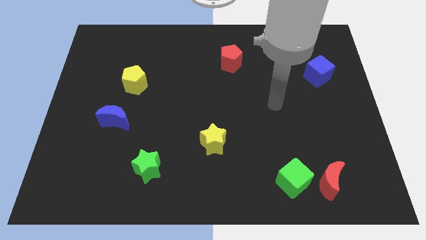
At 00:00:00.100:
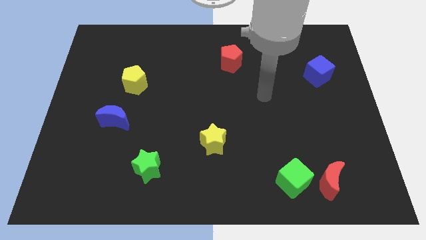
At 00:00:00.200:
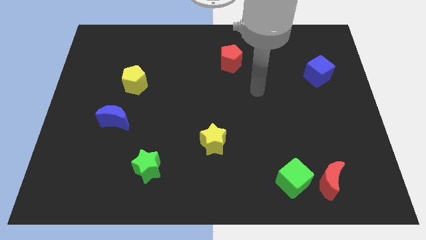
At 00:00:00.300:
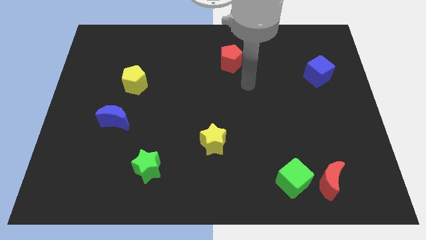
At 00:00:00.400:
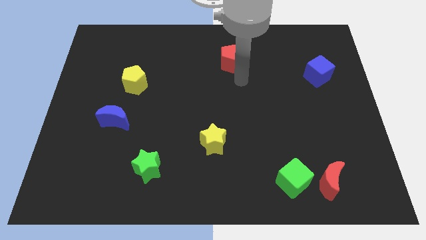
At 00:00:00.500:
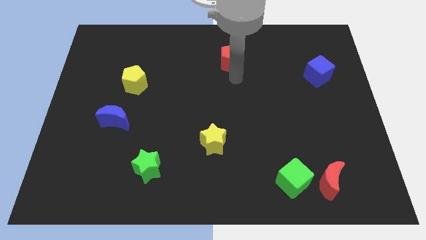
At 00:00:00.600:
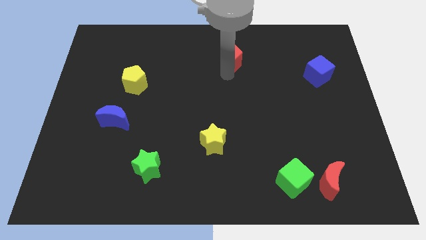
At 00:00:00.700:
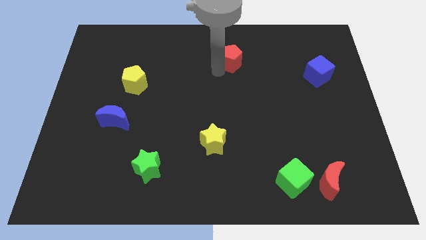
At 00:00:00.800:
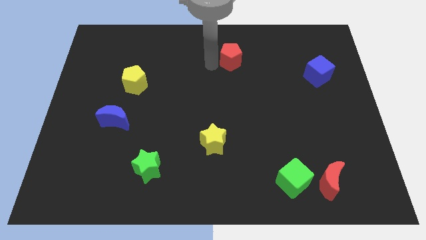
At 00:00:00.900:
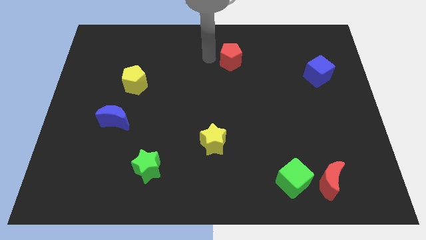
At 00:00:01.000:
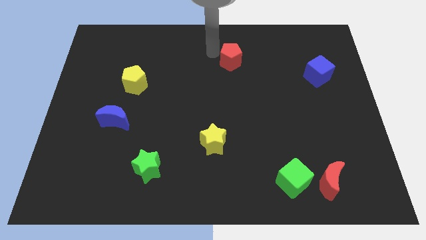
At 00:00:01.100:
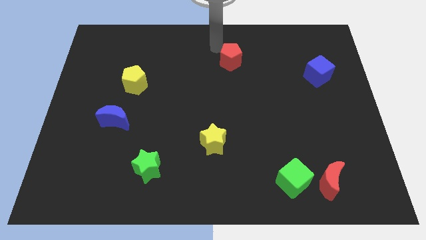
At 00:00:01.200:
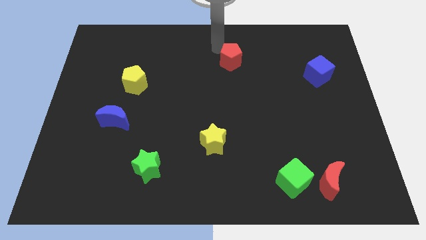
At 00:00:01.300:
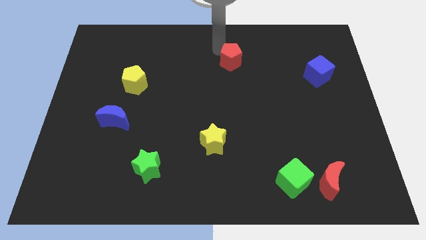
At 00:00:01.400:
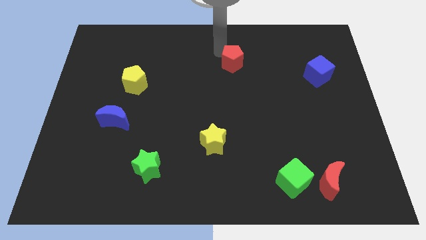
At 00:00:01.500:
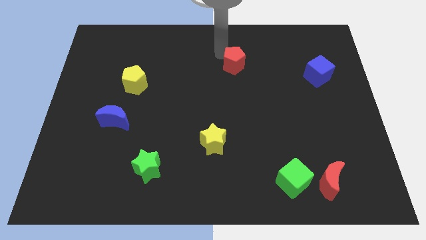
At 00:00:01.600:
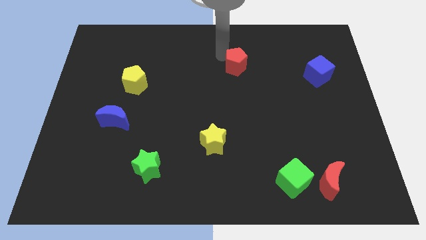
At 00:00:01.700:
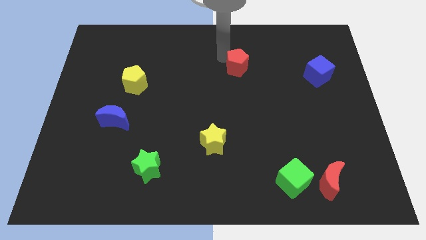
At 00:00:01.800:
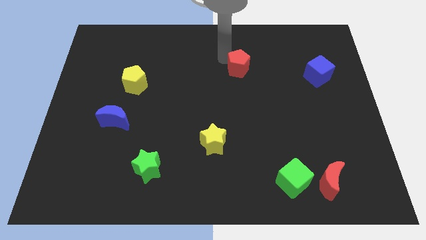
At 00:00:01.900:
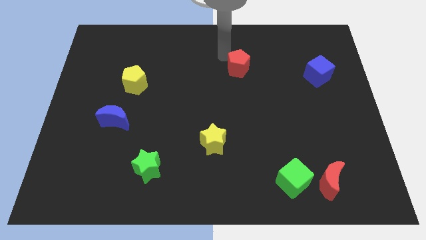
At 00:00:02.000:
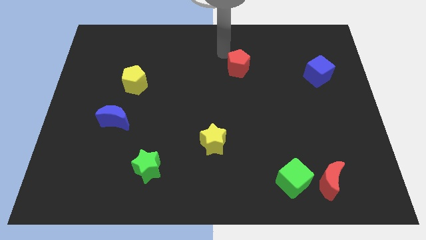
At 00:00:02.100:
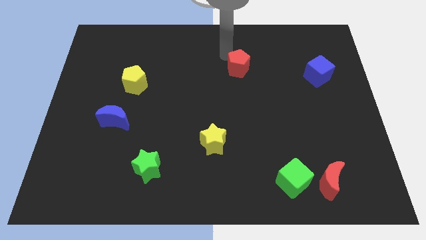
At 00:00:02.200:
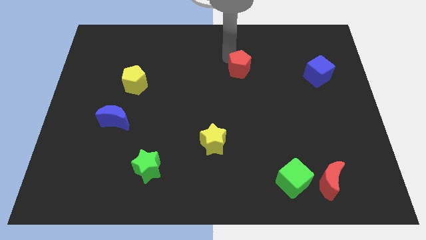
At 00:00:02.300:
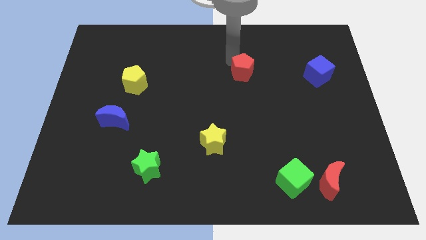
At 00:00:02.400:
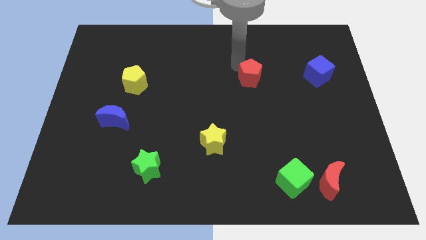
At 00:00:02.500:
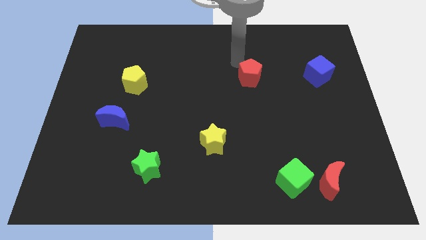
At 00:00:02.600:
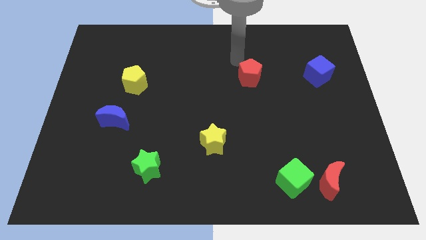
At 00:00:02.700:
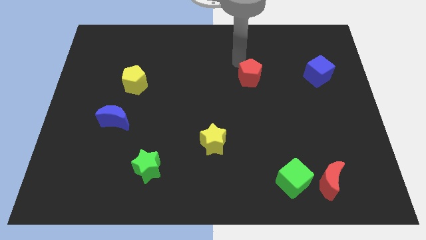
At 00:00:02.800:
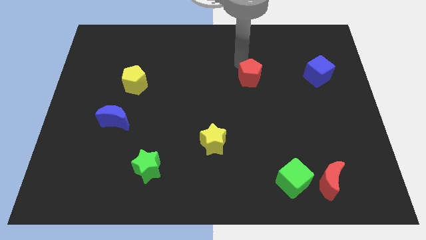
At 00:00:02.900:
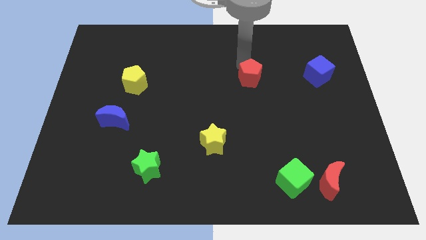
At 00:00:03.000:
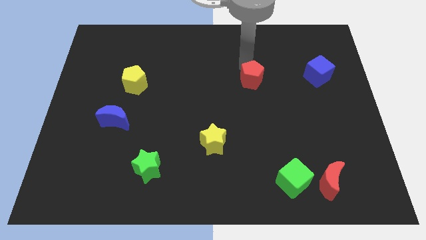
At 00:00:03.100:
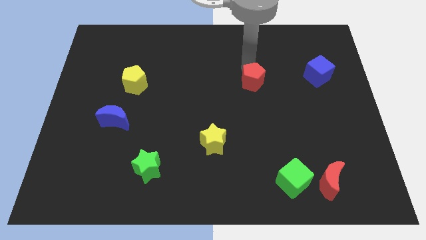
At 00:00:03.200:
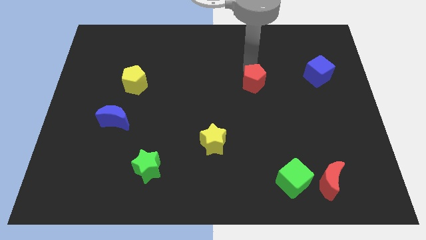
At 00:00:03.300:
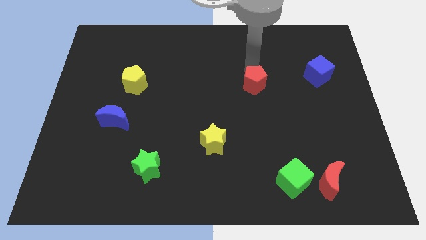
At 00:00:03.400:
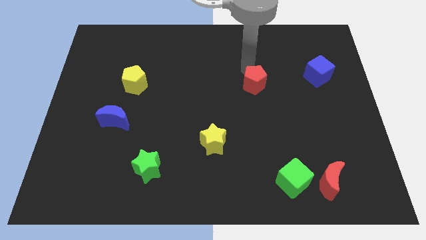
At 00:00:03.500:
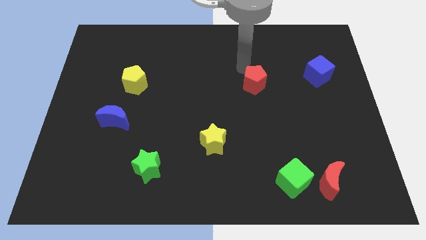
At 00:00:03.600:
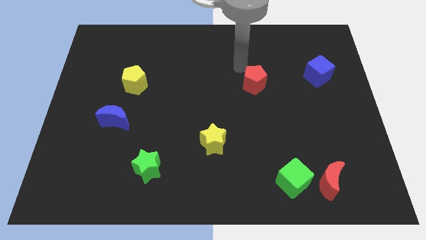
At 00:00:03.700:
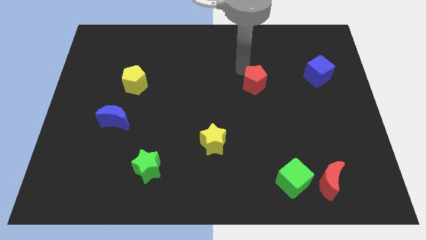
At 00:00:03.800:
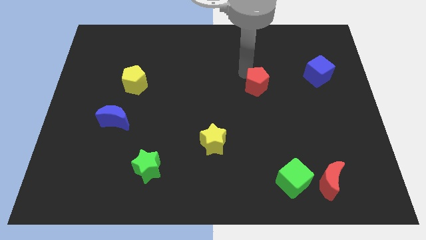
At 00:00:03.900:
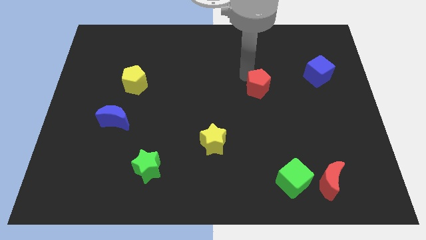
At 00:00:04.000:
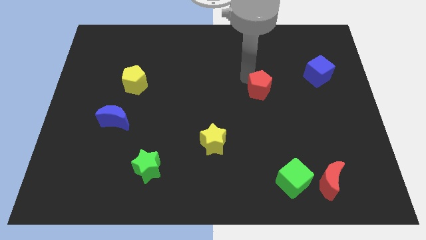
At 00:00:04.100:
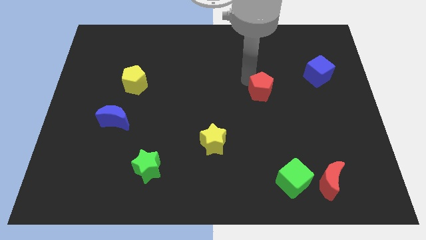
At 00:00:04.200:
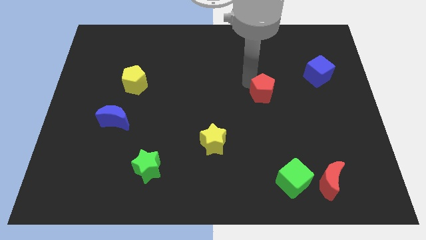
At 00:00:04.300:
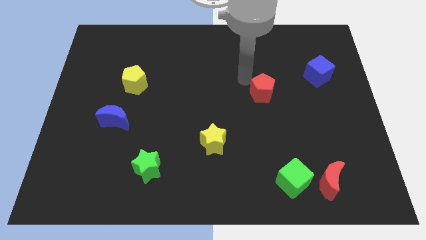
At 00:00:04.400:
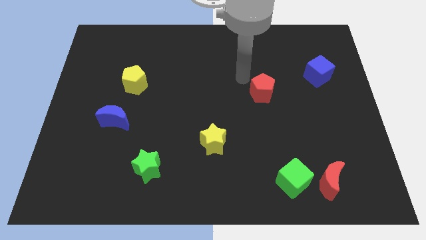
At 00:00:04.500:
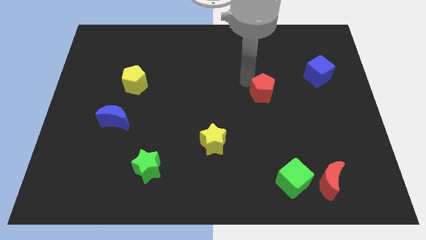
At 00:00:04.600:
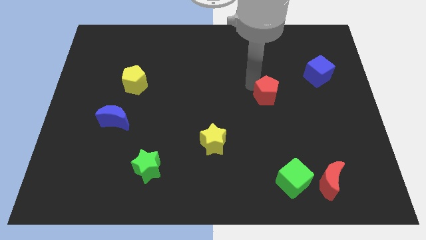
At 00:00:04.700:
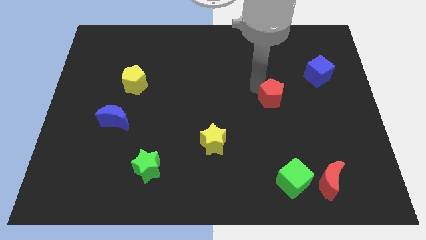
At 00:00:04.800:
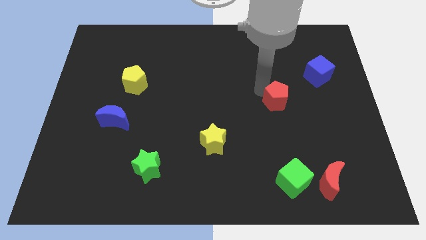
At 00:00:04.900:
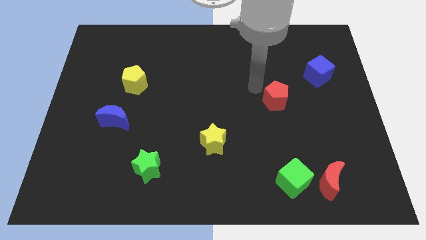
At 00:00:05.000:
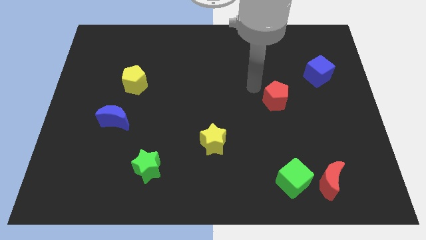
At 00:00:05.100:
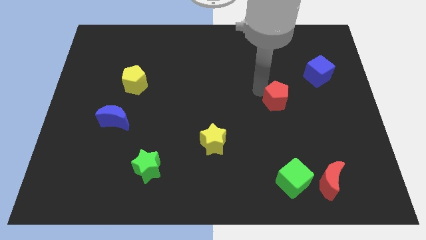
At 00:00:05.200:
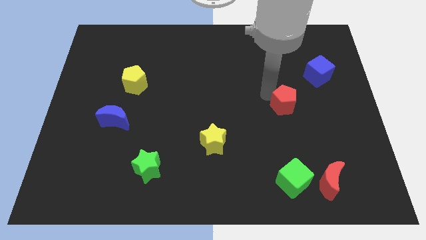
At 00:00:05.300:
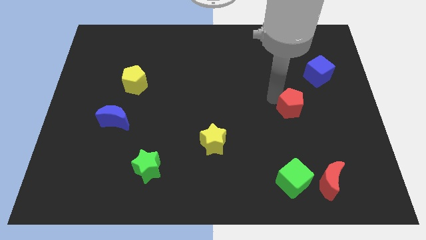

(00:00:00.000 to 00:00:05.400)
move the red pentagon diagonally downwards and to the right

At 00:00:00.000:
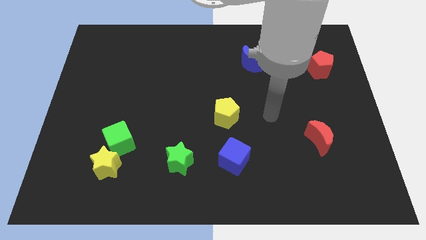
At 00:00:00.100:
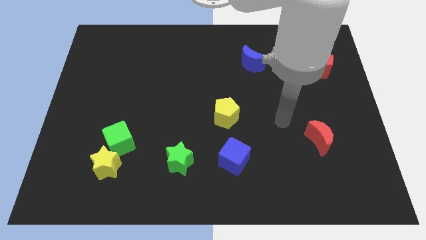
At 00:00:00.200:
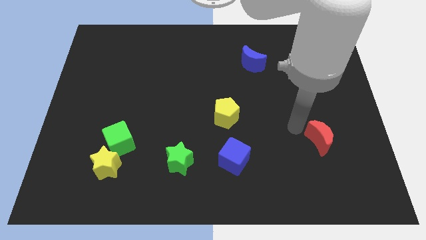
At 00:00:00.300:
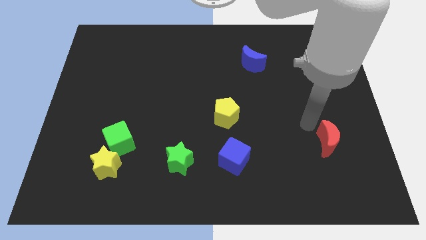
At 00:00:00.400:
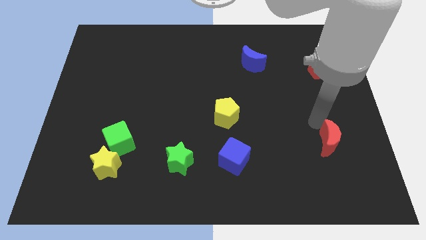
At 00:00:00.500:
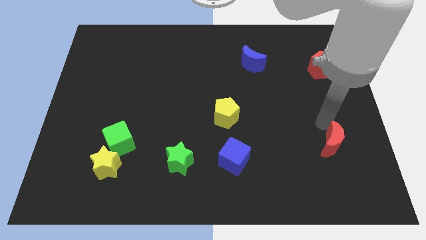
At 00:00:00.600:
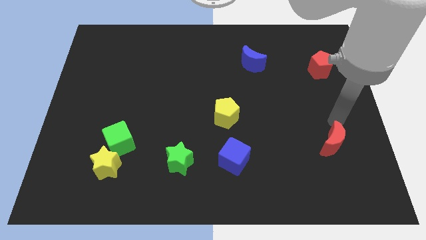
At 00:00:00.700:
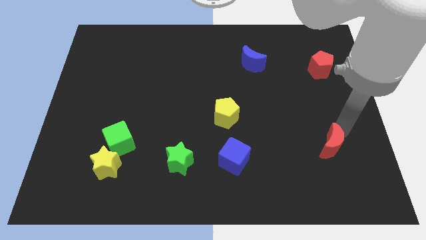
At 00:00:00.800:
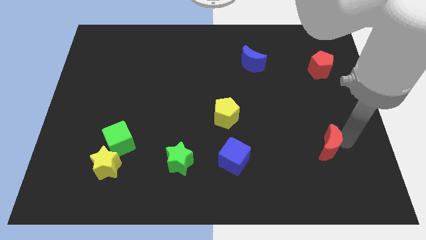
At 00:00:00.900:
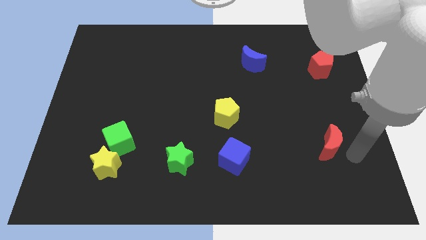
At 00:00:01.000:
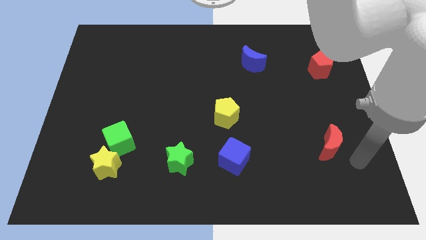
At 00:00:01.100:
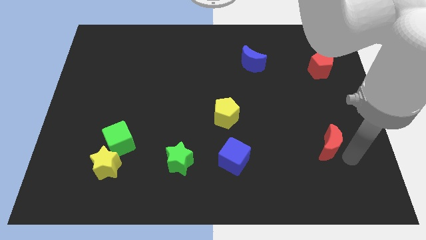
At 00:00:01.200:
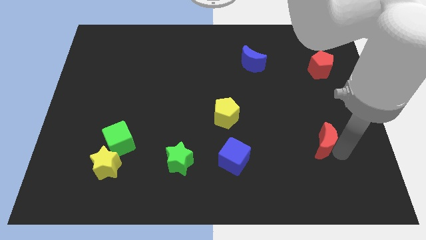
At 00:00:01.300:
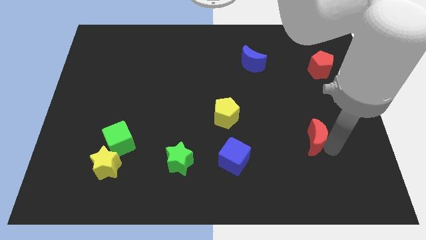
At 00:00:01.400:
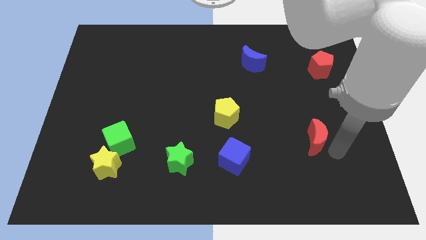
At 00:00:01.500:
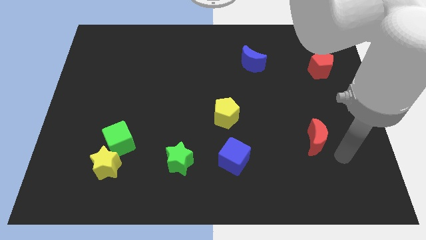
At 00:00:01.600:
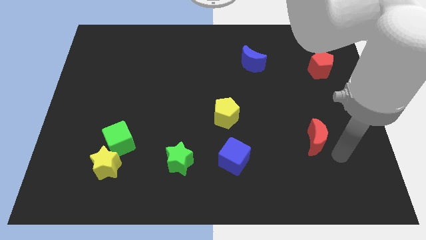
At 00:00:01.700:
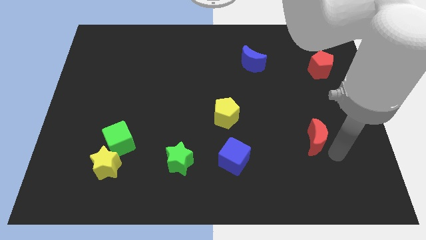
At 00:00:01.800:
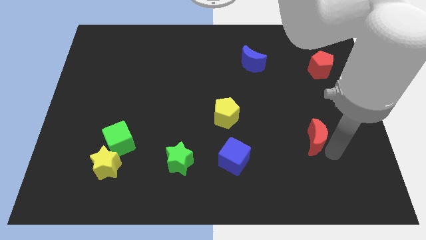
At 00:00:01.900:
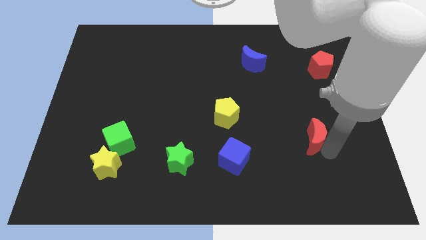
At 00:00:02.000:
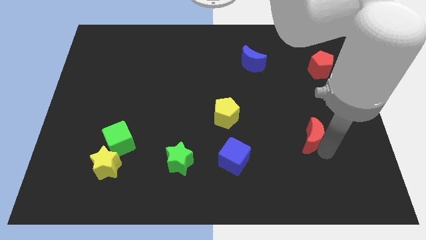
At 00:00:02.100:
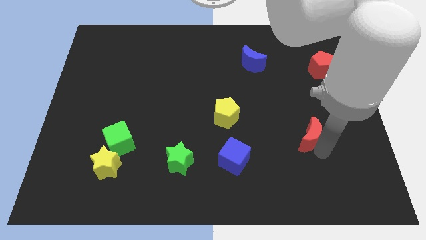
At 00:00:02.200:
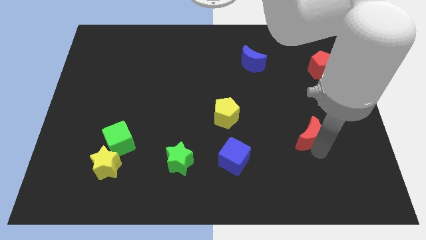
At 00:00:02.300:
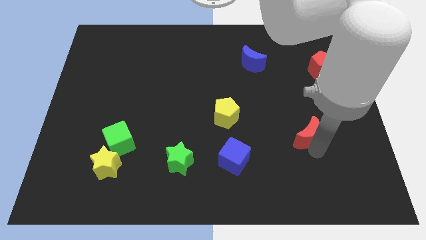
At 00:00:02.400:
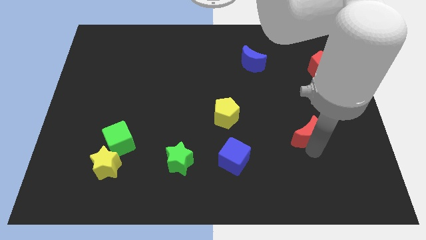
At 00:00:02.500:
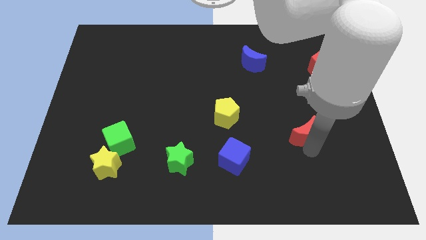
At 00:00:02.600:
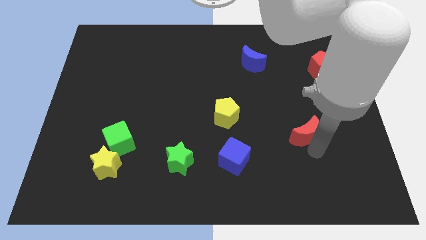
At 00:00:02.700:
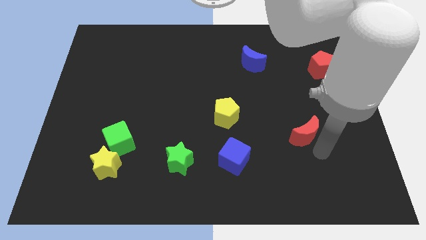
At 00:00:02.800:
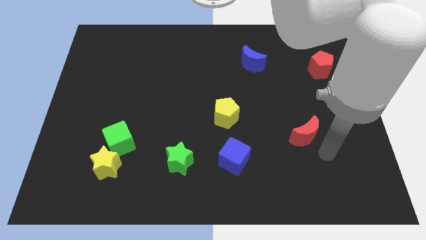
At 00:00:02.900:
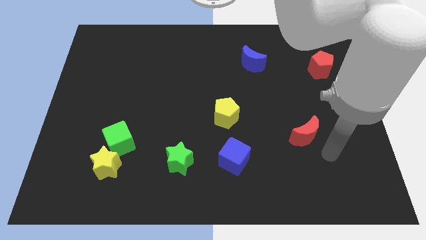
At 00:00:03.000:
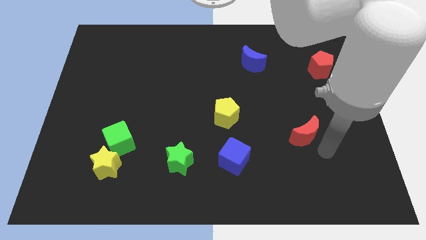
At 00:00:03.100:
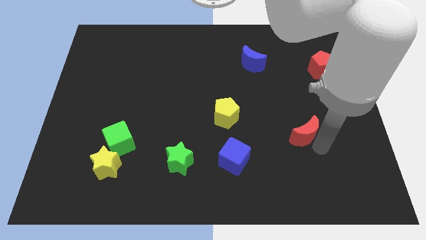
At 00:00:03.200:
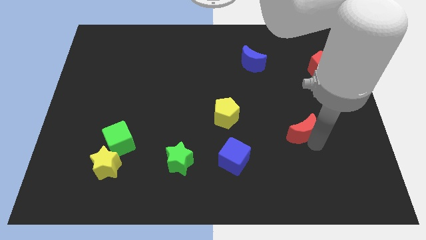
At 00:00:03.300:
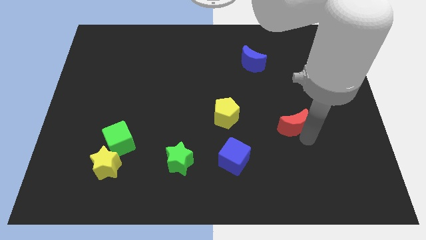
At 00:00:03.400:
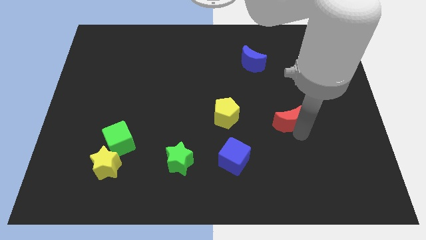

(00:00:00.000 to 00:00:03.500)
push the red moon somewhat up and left
